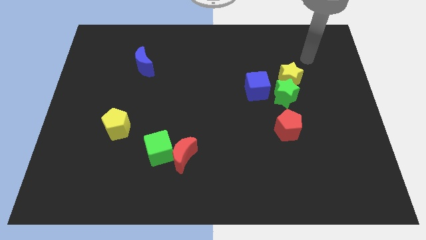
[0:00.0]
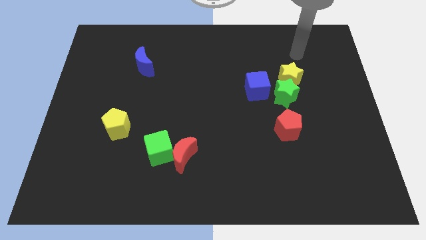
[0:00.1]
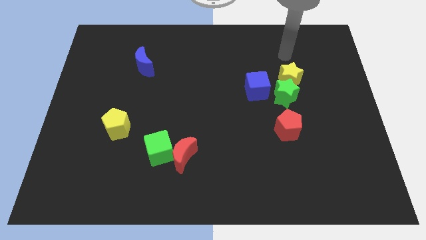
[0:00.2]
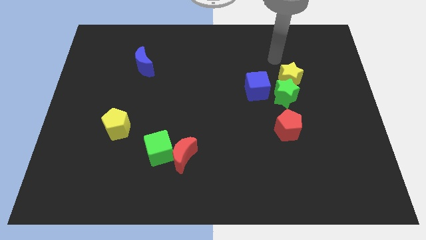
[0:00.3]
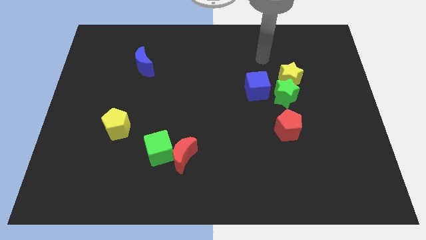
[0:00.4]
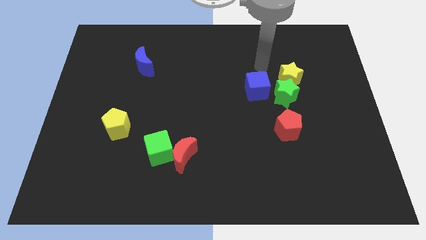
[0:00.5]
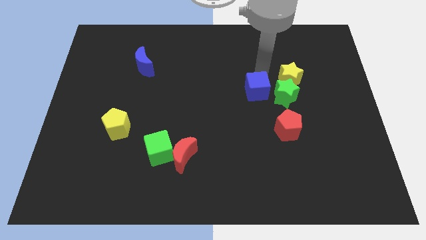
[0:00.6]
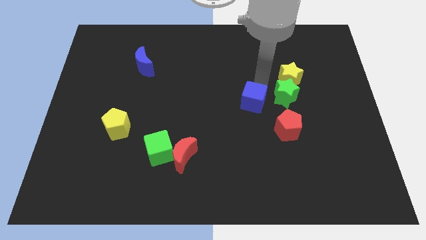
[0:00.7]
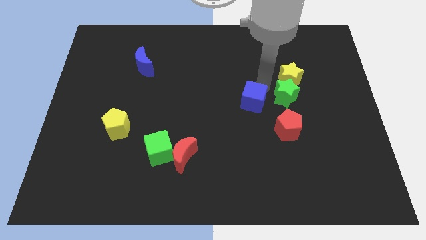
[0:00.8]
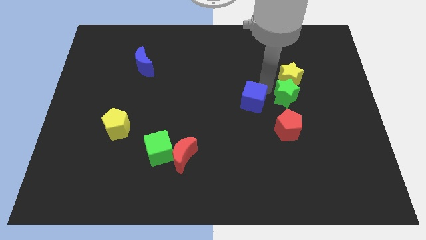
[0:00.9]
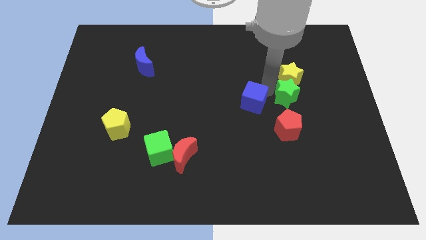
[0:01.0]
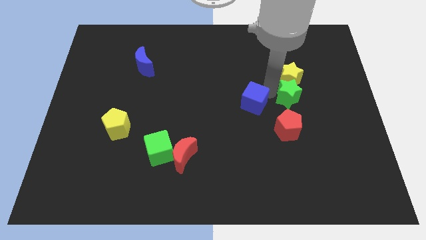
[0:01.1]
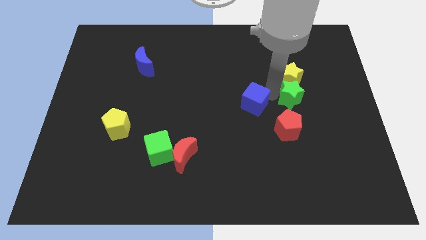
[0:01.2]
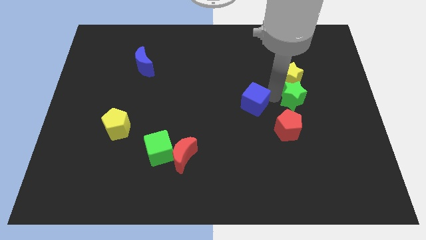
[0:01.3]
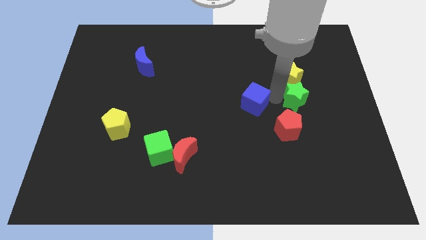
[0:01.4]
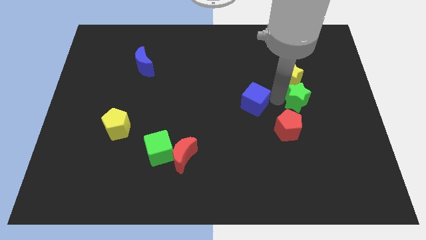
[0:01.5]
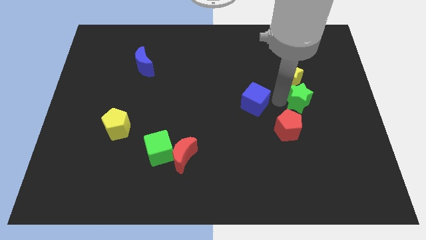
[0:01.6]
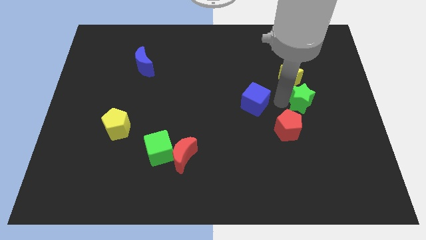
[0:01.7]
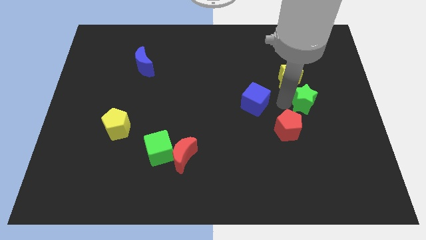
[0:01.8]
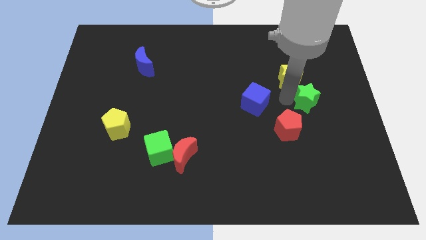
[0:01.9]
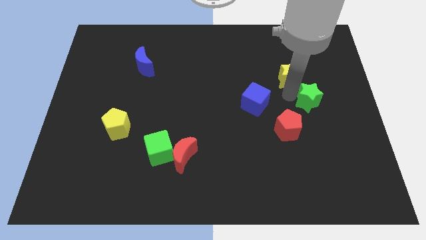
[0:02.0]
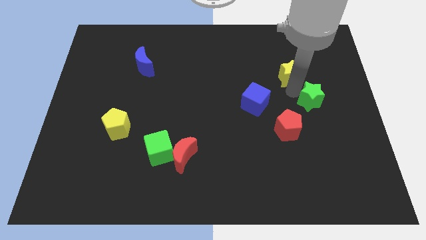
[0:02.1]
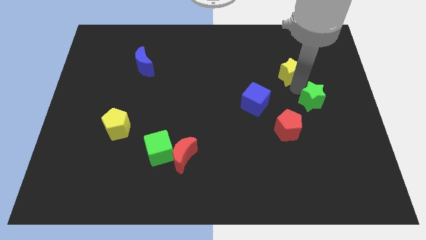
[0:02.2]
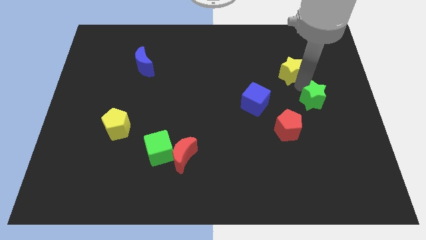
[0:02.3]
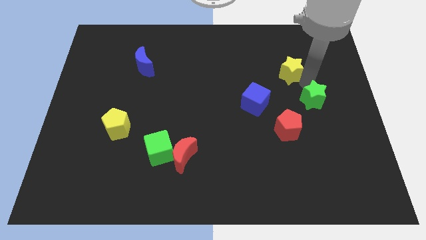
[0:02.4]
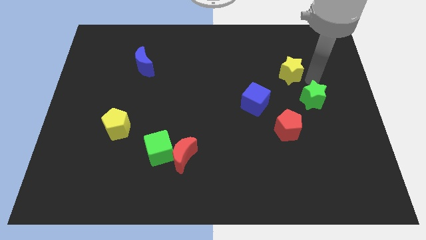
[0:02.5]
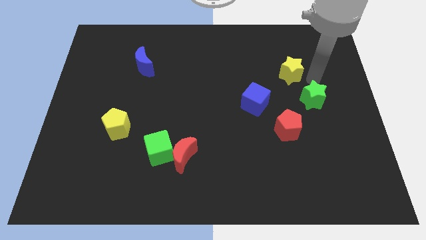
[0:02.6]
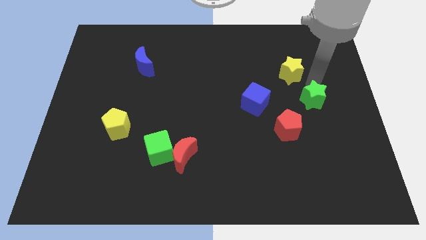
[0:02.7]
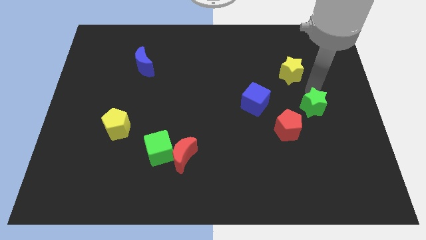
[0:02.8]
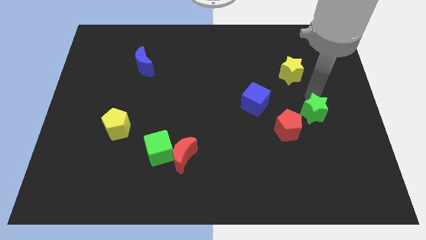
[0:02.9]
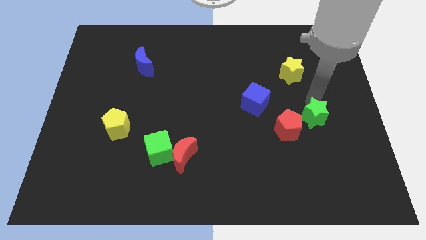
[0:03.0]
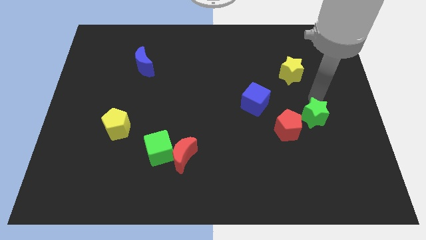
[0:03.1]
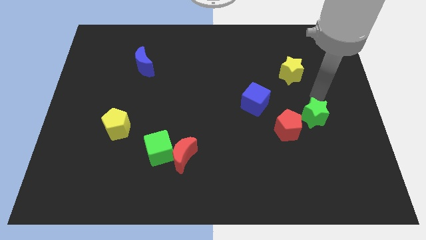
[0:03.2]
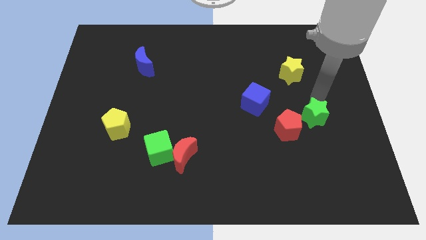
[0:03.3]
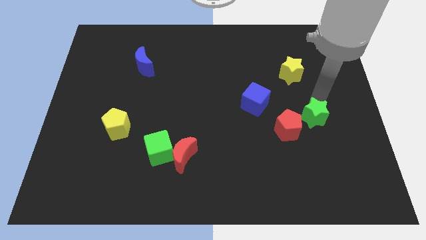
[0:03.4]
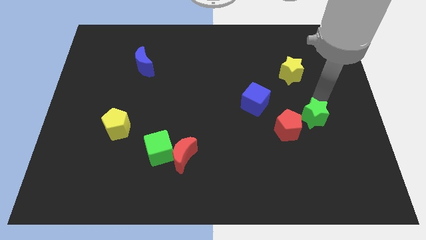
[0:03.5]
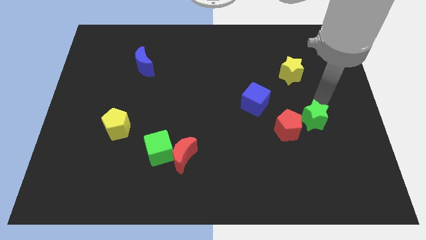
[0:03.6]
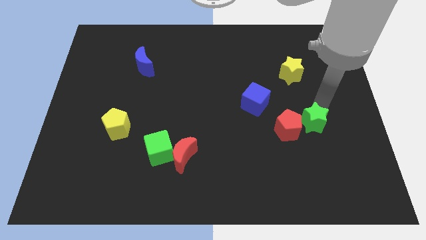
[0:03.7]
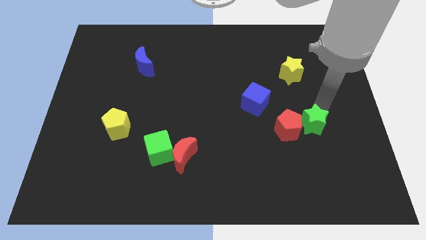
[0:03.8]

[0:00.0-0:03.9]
slide the green star somewhat down

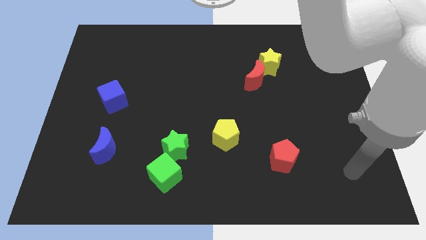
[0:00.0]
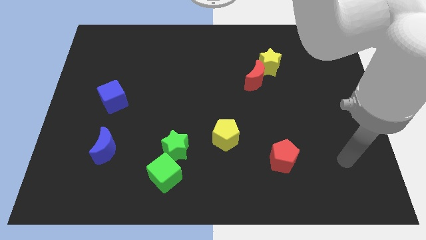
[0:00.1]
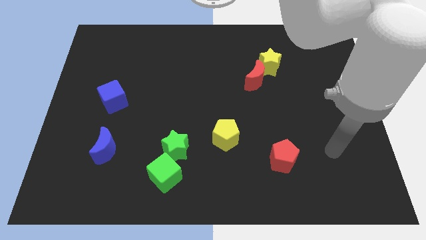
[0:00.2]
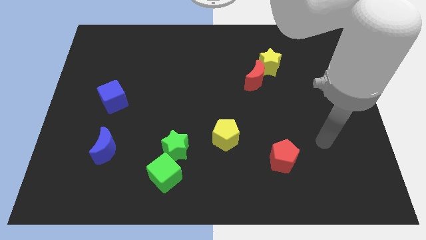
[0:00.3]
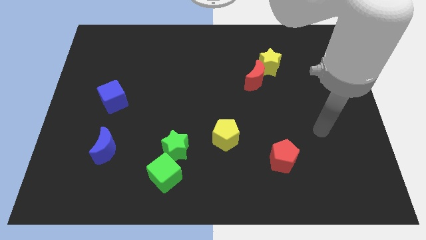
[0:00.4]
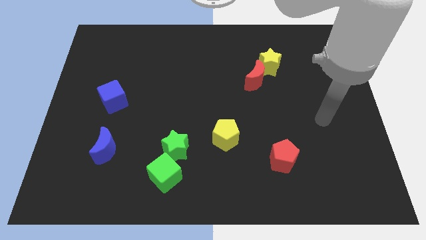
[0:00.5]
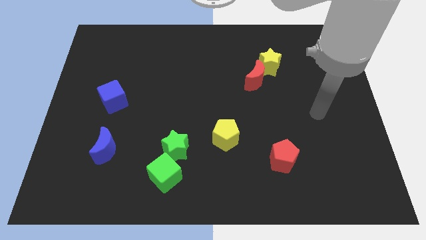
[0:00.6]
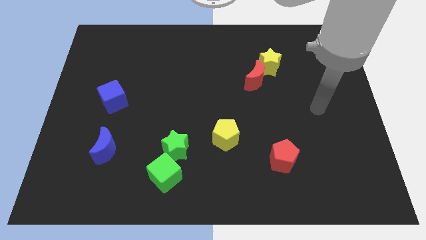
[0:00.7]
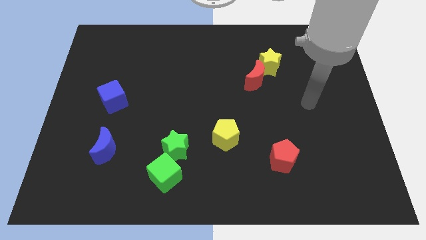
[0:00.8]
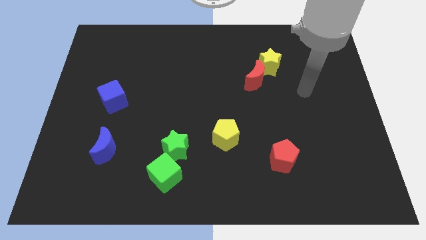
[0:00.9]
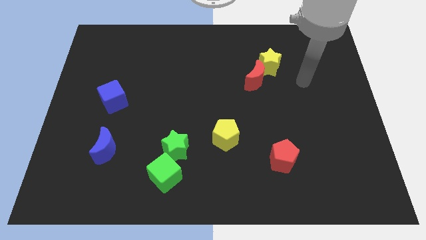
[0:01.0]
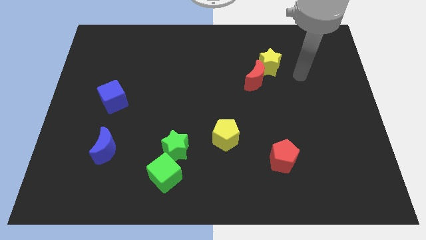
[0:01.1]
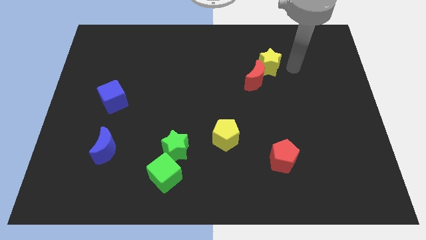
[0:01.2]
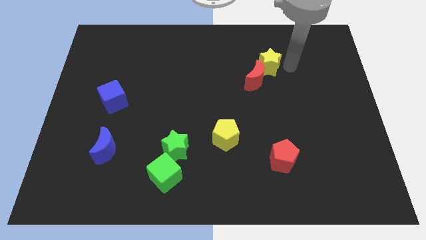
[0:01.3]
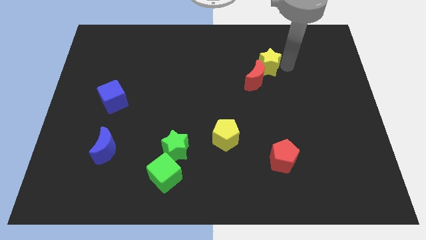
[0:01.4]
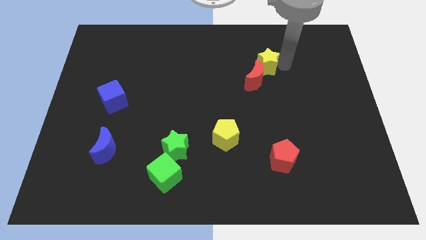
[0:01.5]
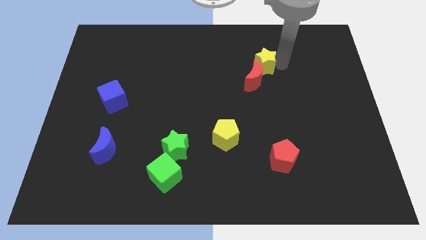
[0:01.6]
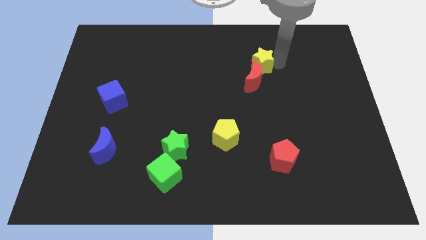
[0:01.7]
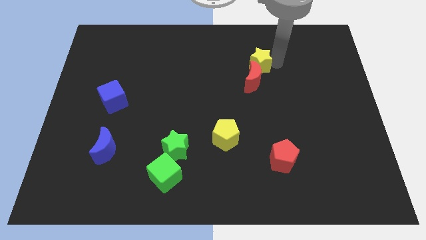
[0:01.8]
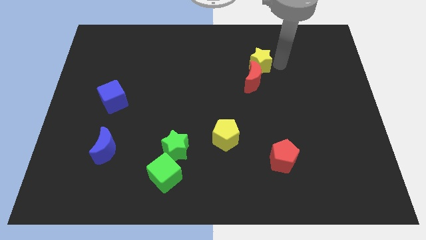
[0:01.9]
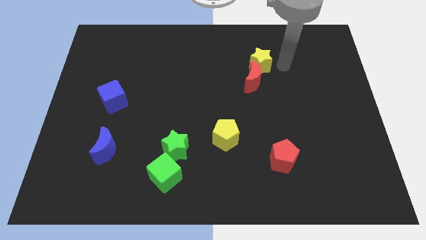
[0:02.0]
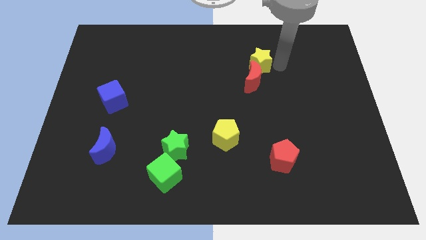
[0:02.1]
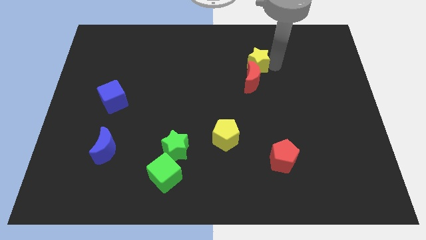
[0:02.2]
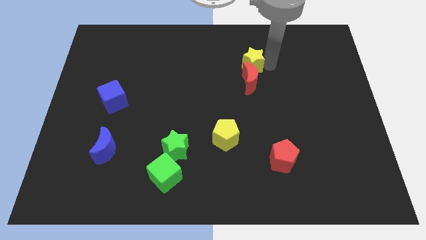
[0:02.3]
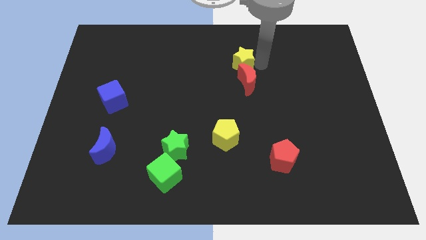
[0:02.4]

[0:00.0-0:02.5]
push the yellow star a little bit left

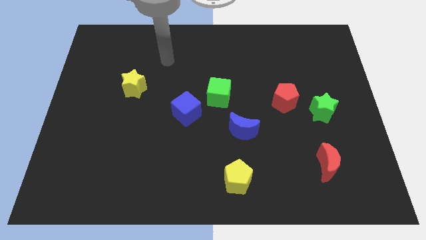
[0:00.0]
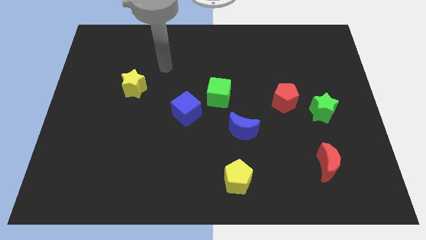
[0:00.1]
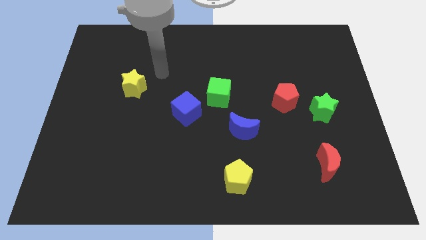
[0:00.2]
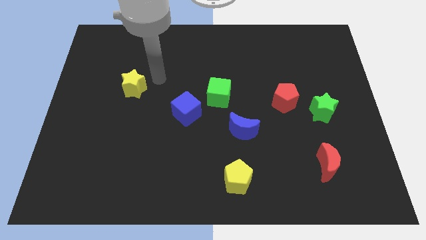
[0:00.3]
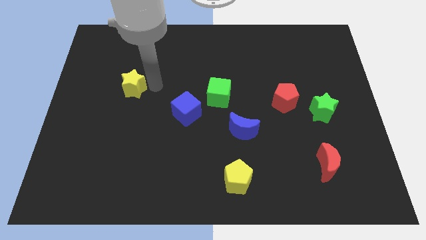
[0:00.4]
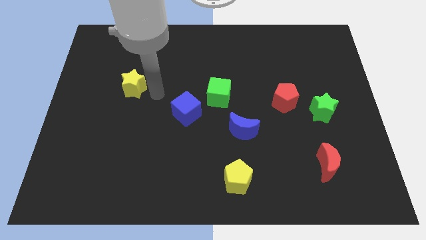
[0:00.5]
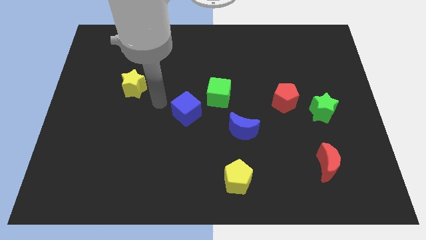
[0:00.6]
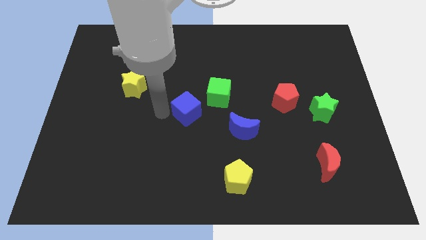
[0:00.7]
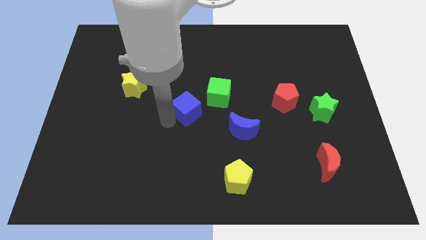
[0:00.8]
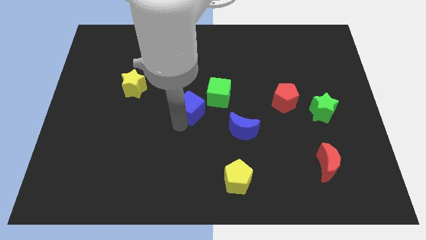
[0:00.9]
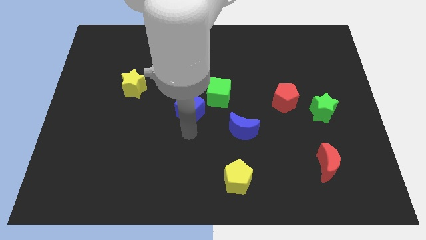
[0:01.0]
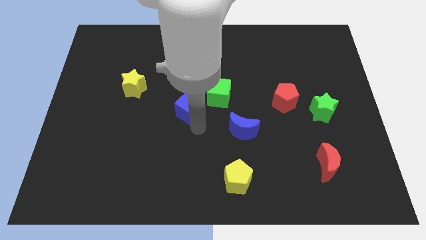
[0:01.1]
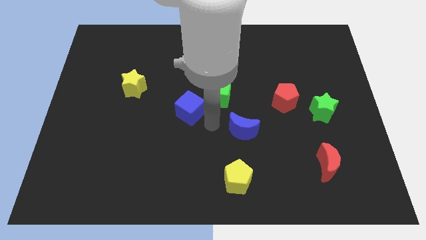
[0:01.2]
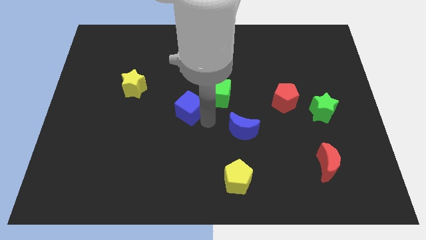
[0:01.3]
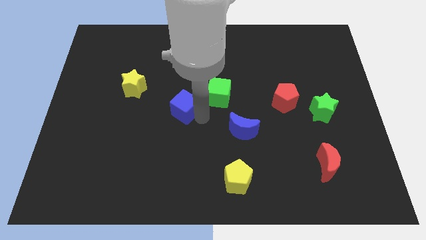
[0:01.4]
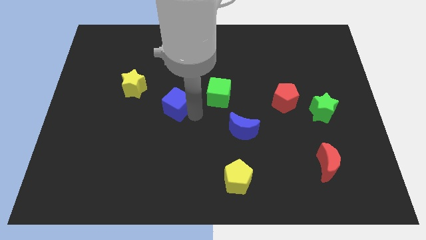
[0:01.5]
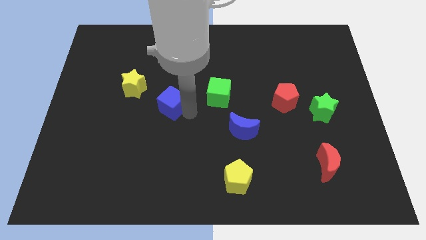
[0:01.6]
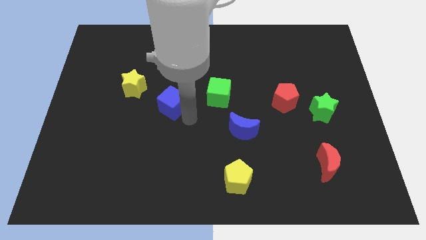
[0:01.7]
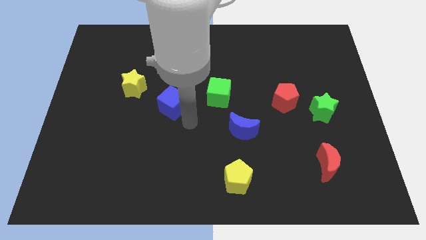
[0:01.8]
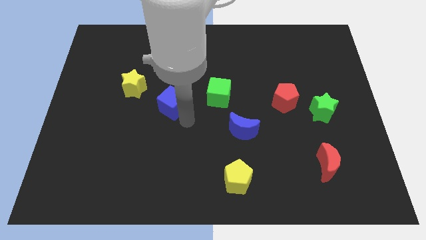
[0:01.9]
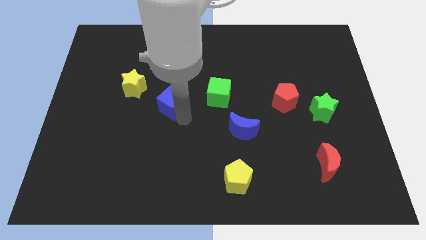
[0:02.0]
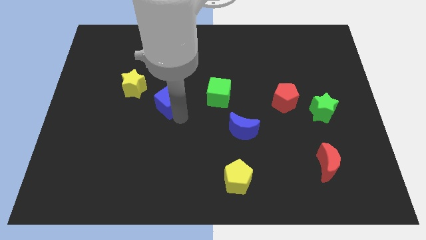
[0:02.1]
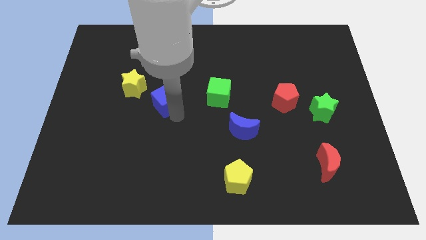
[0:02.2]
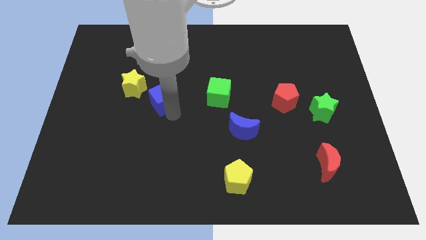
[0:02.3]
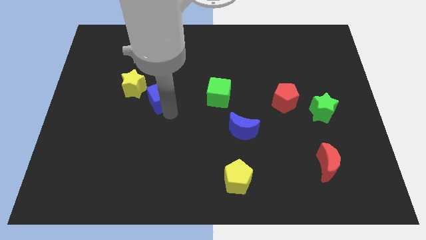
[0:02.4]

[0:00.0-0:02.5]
slightly move the blue cube up and then to the left
